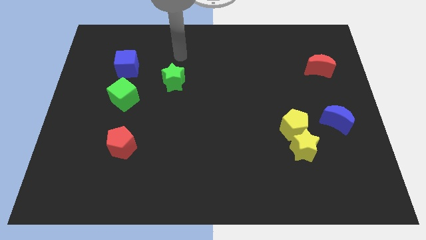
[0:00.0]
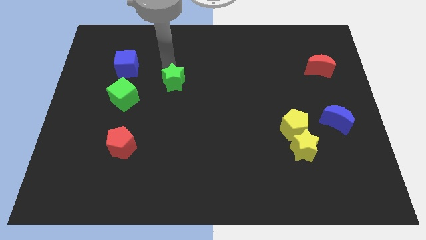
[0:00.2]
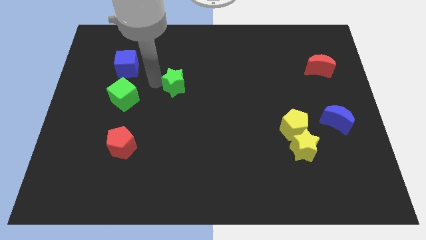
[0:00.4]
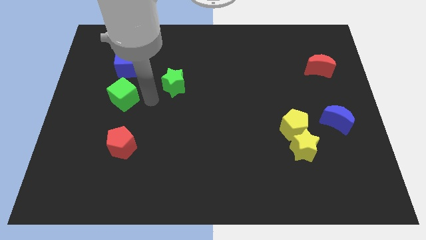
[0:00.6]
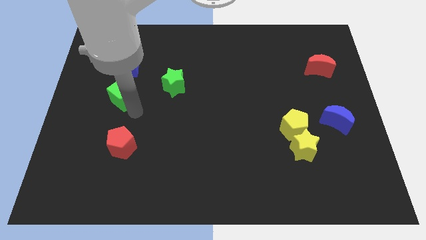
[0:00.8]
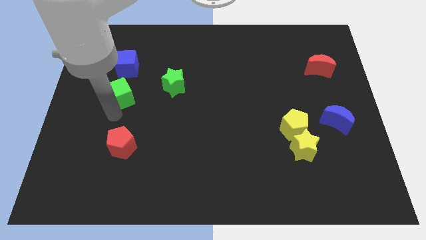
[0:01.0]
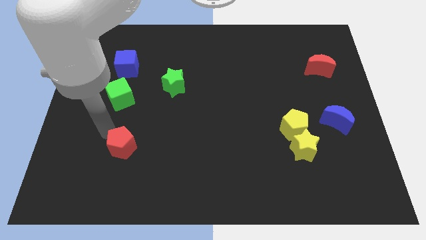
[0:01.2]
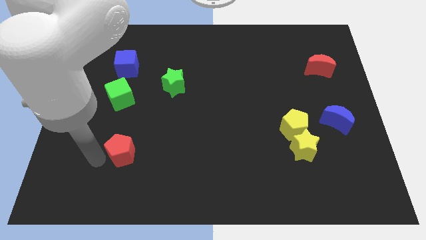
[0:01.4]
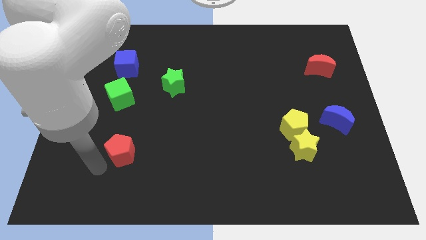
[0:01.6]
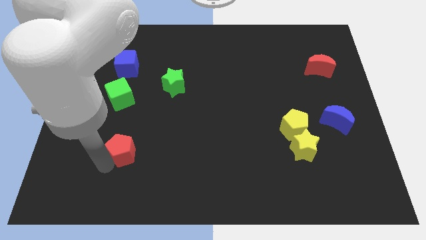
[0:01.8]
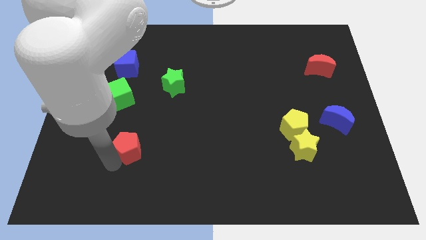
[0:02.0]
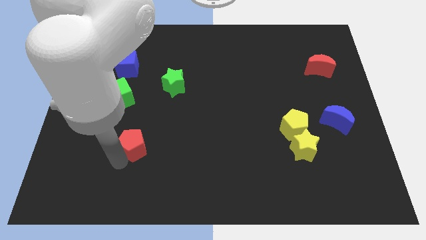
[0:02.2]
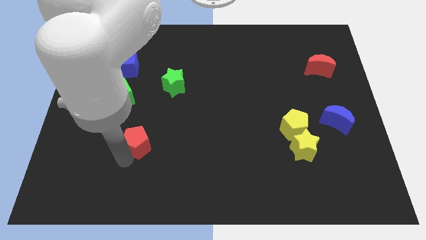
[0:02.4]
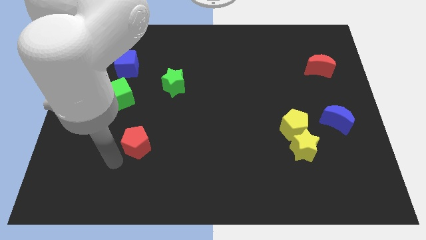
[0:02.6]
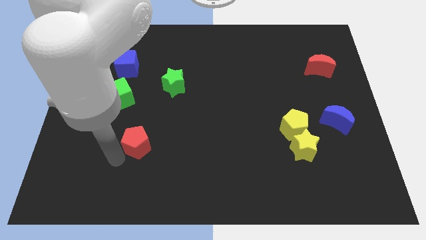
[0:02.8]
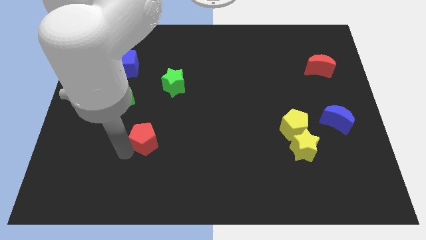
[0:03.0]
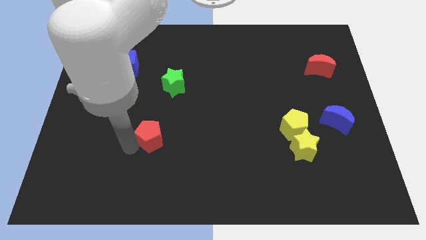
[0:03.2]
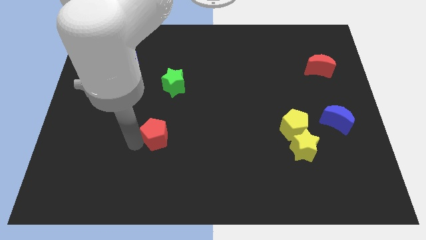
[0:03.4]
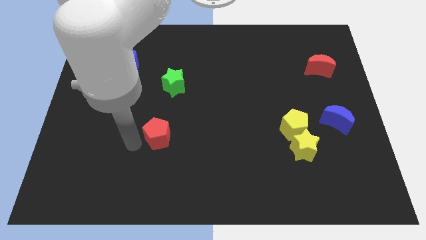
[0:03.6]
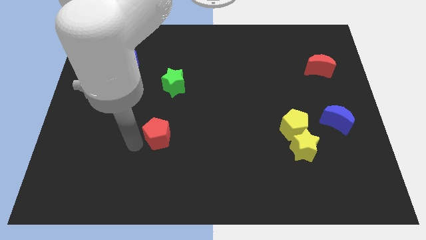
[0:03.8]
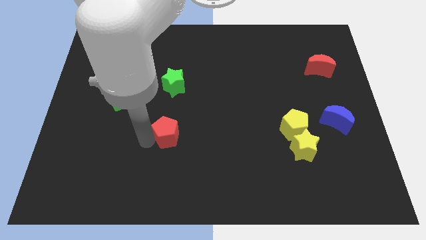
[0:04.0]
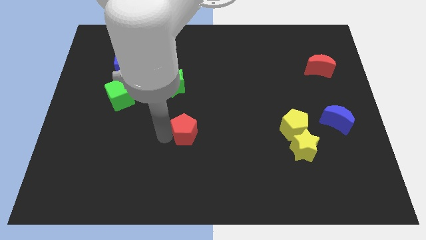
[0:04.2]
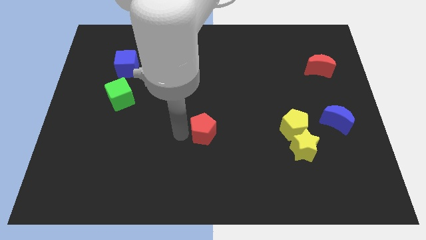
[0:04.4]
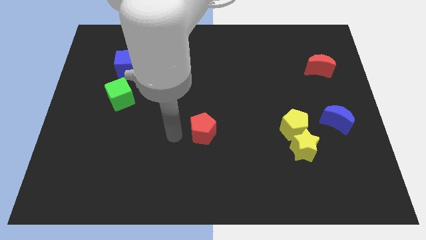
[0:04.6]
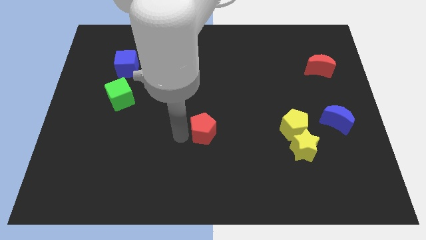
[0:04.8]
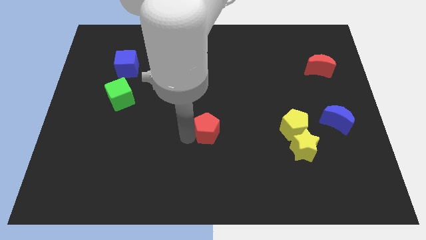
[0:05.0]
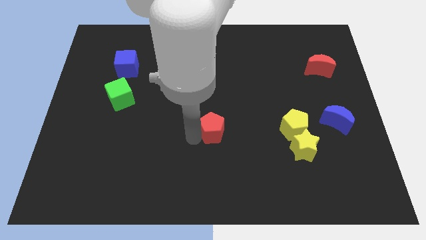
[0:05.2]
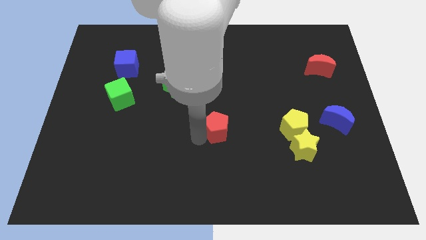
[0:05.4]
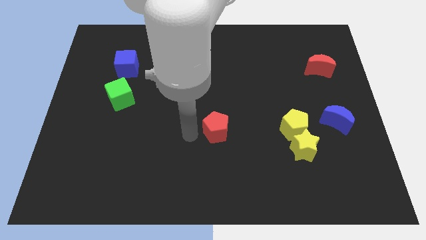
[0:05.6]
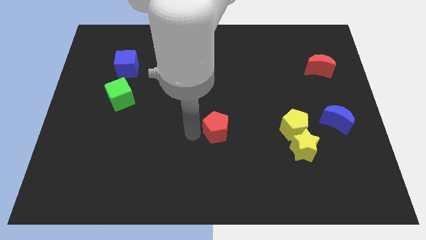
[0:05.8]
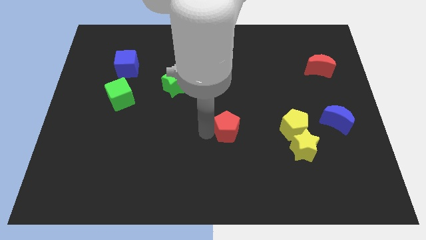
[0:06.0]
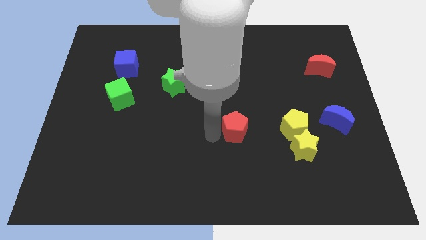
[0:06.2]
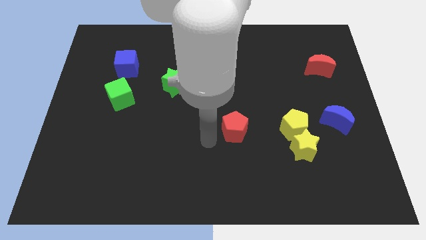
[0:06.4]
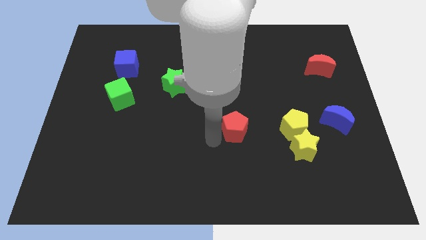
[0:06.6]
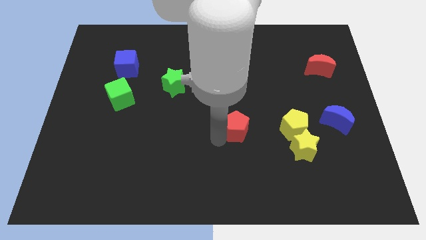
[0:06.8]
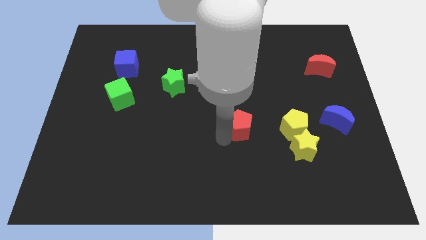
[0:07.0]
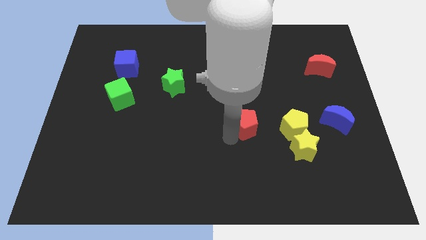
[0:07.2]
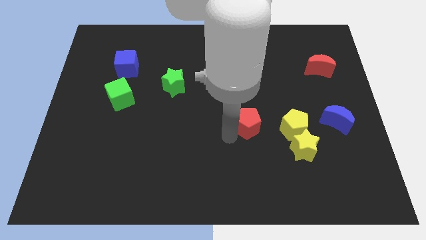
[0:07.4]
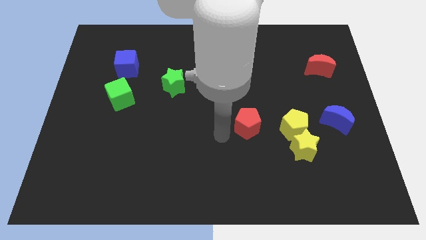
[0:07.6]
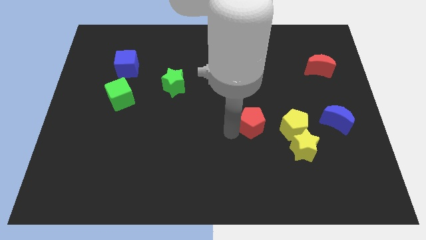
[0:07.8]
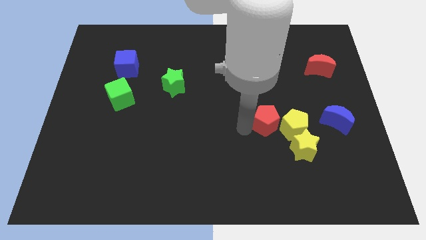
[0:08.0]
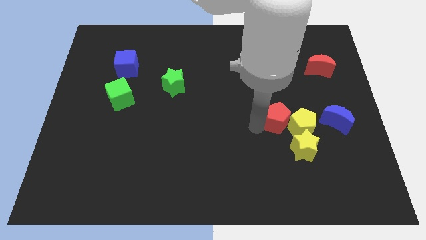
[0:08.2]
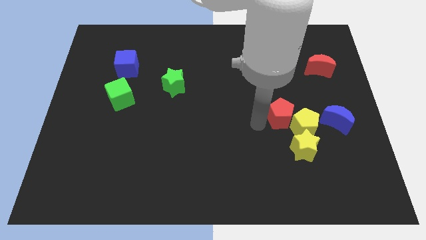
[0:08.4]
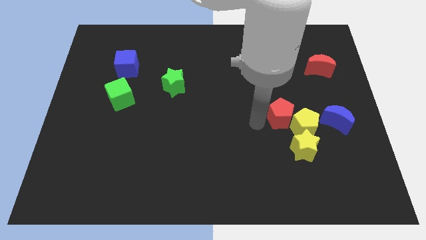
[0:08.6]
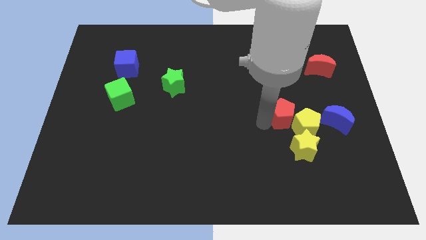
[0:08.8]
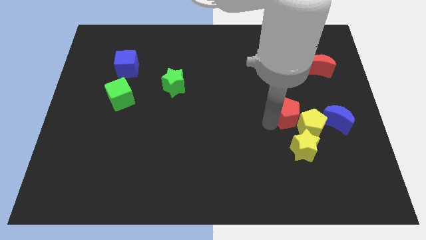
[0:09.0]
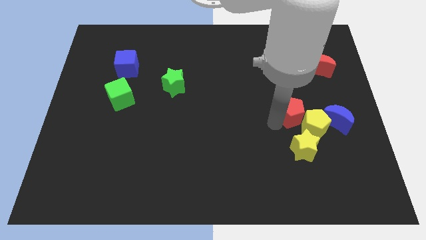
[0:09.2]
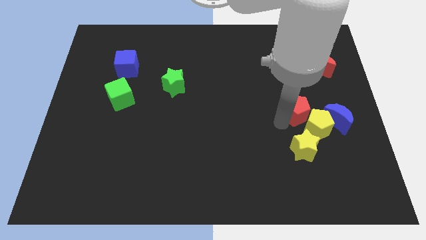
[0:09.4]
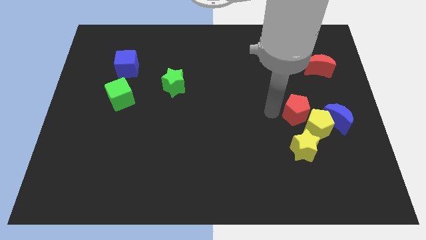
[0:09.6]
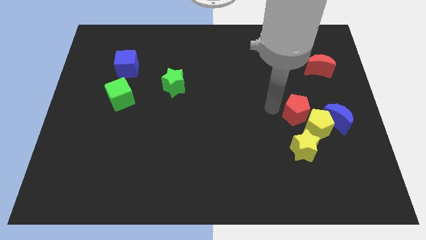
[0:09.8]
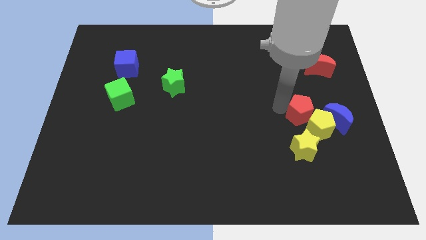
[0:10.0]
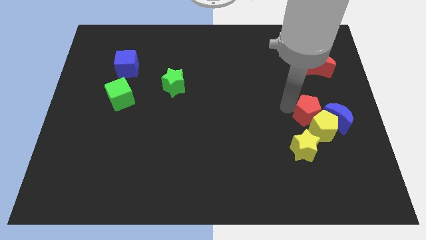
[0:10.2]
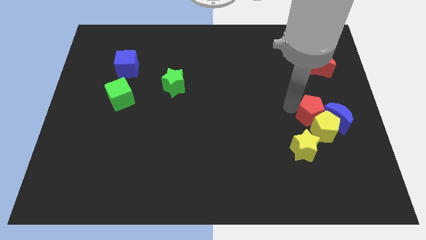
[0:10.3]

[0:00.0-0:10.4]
slide the red pentagon close to the blue moon

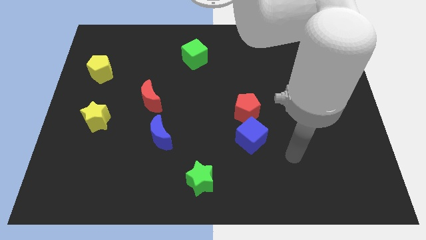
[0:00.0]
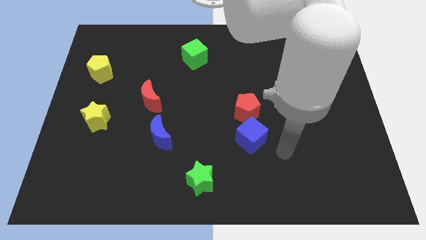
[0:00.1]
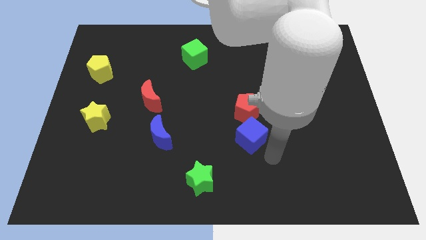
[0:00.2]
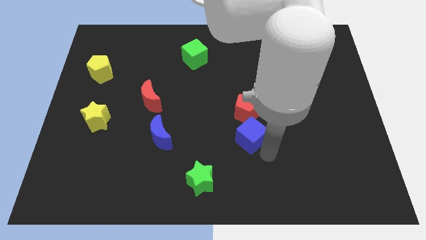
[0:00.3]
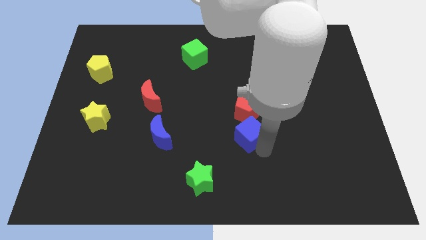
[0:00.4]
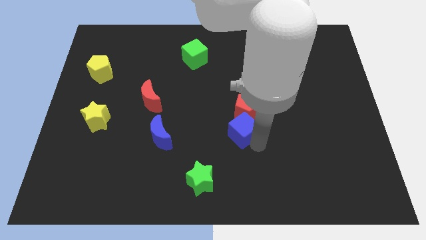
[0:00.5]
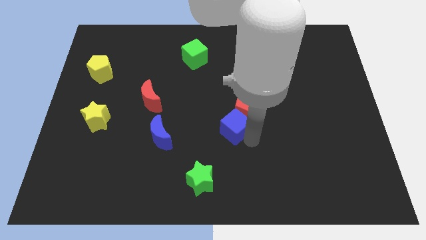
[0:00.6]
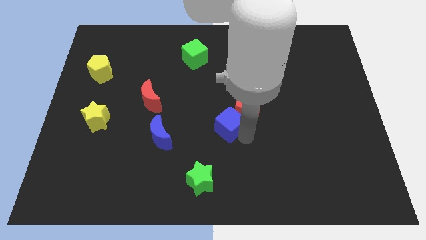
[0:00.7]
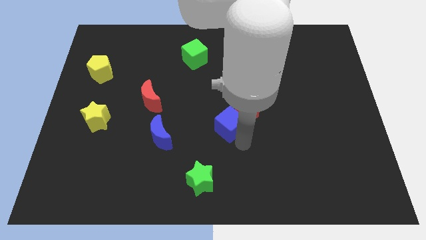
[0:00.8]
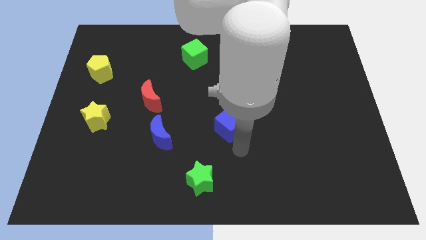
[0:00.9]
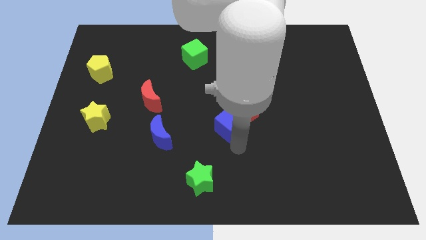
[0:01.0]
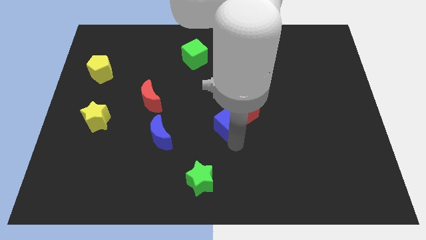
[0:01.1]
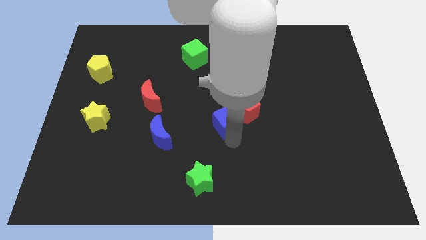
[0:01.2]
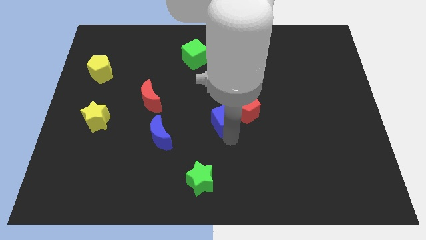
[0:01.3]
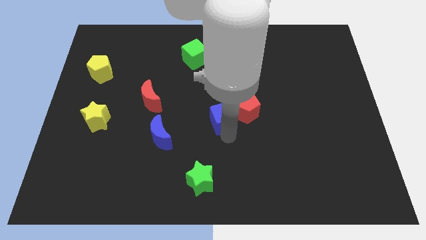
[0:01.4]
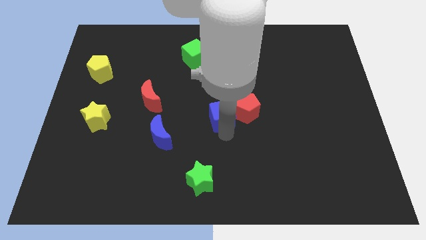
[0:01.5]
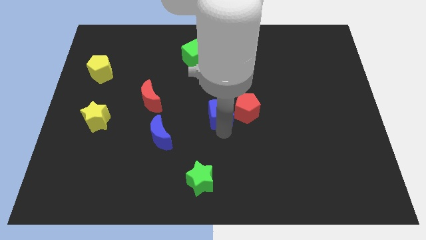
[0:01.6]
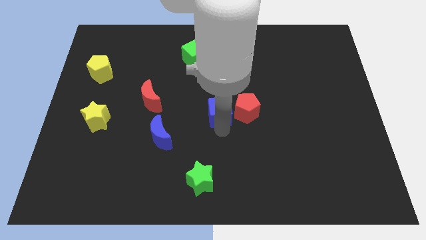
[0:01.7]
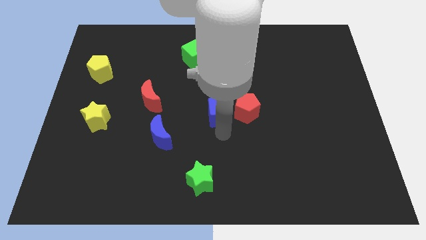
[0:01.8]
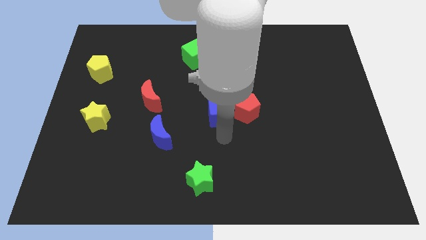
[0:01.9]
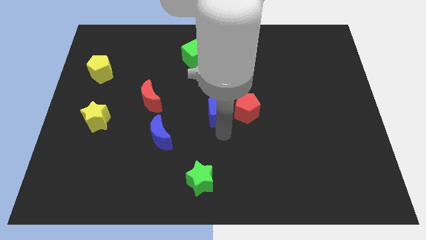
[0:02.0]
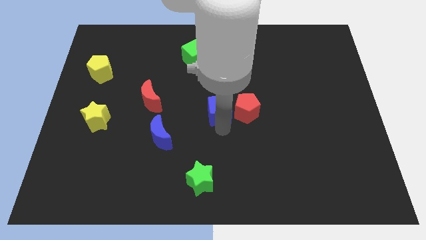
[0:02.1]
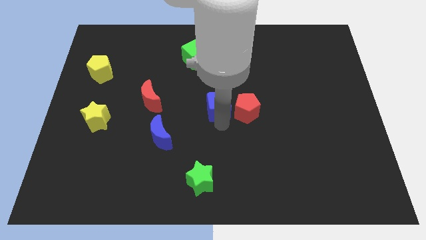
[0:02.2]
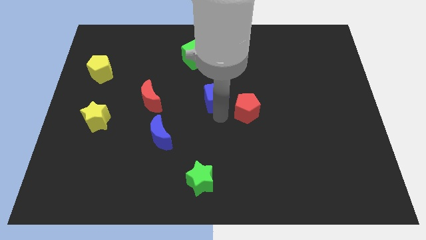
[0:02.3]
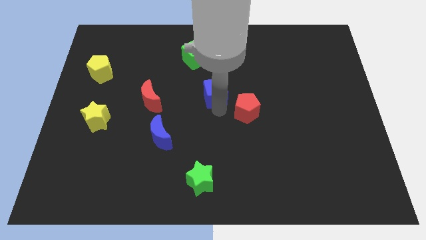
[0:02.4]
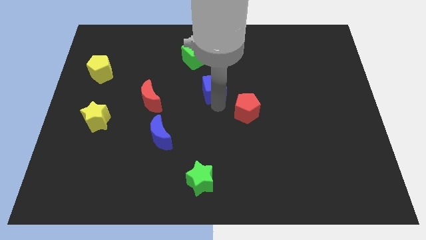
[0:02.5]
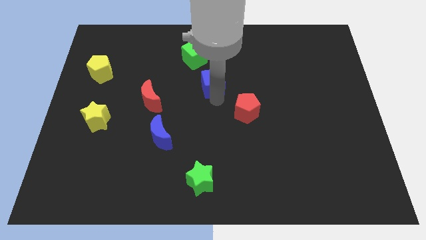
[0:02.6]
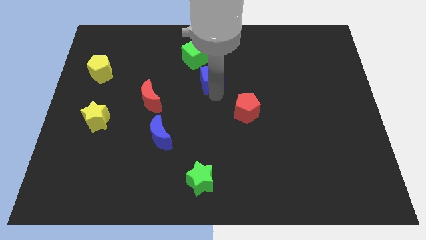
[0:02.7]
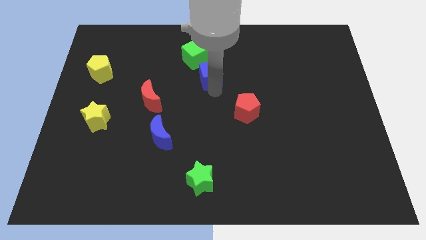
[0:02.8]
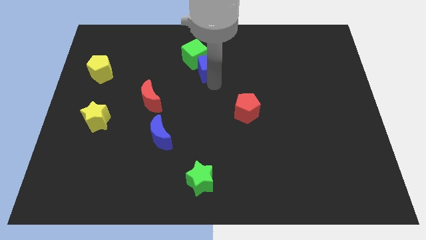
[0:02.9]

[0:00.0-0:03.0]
put the blue cube to the green cube

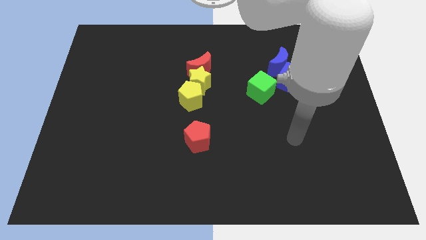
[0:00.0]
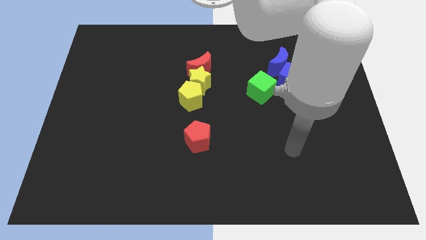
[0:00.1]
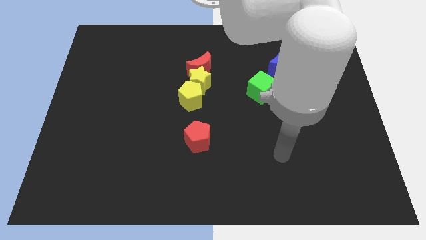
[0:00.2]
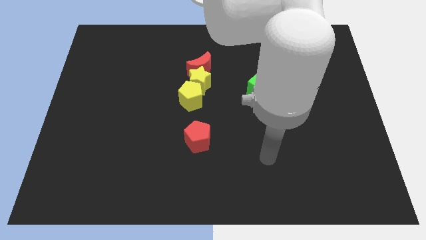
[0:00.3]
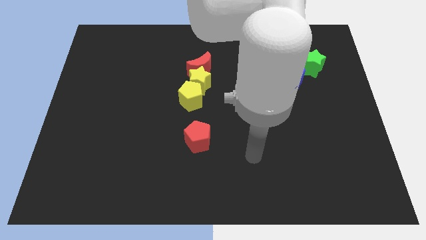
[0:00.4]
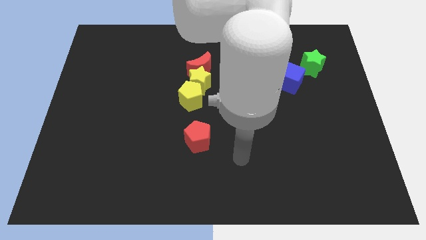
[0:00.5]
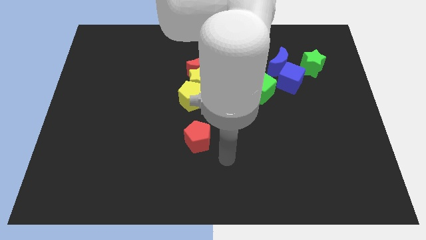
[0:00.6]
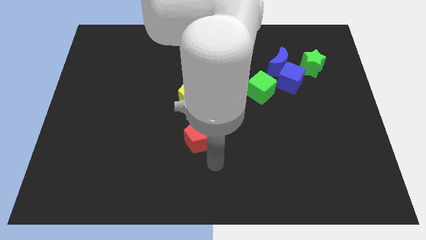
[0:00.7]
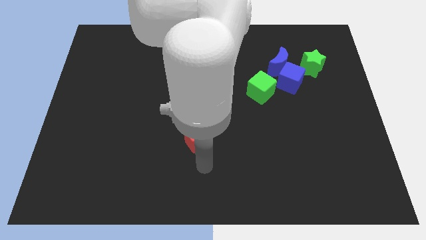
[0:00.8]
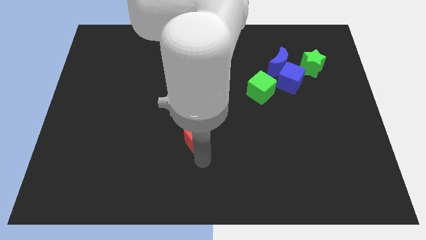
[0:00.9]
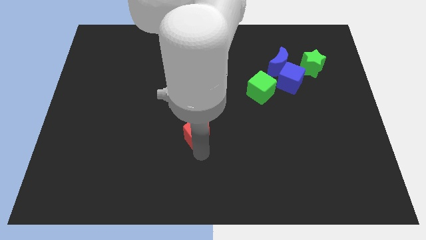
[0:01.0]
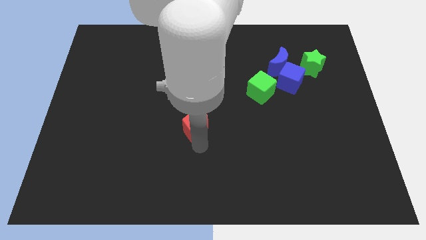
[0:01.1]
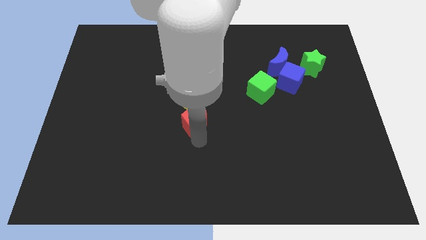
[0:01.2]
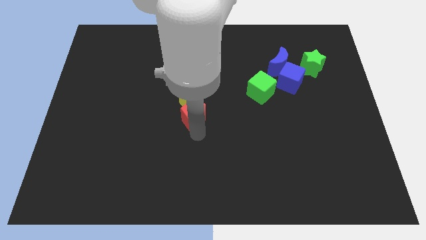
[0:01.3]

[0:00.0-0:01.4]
move the red pentagon to the yellow pentagon
